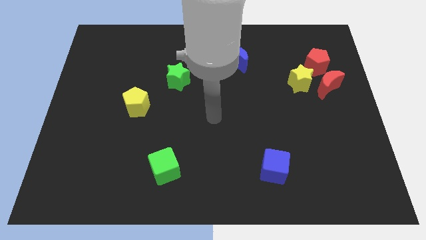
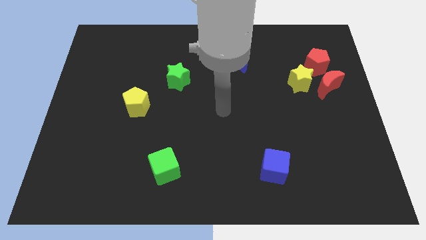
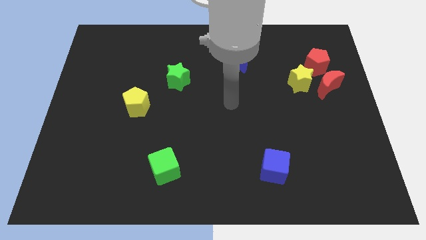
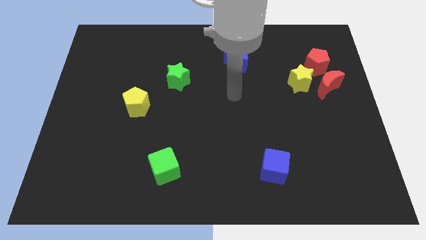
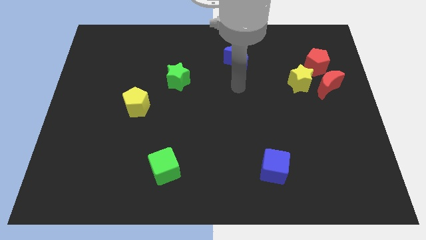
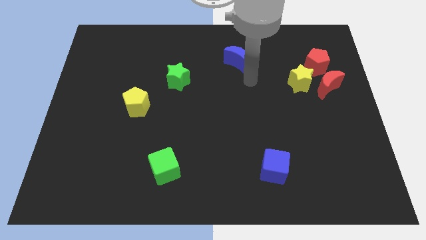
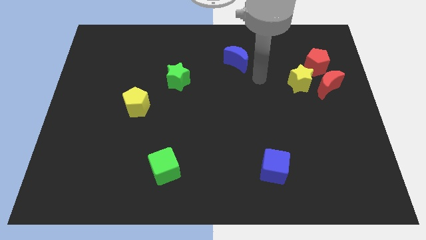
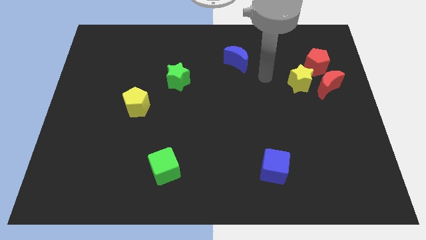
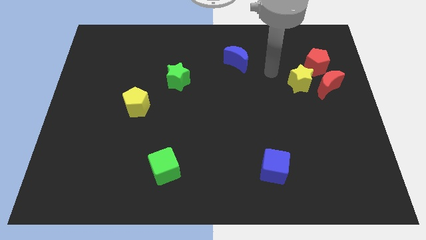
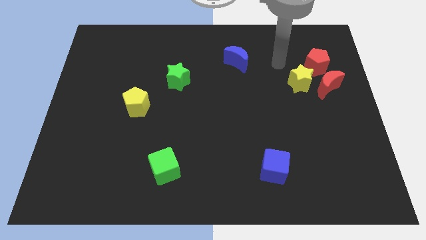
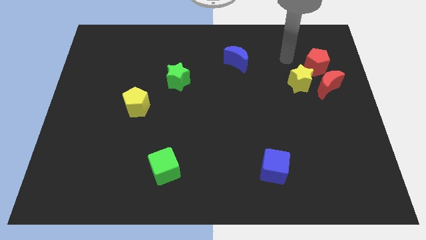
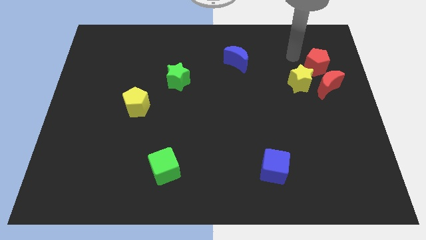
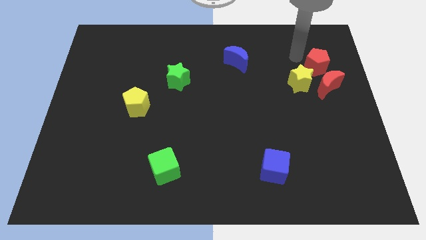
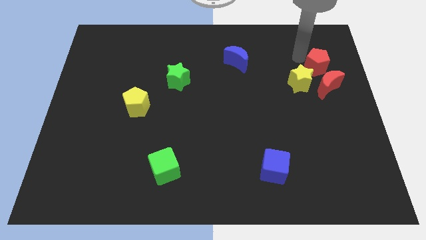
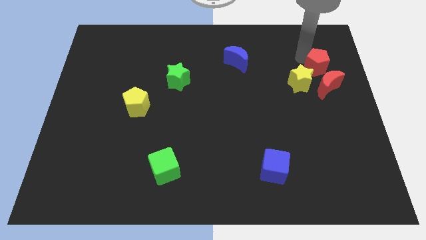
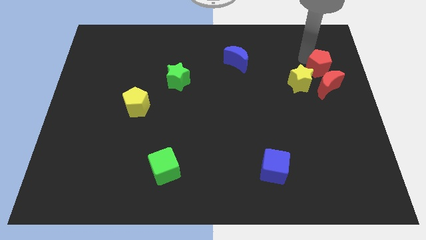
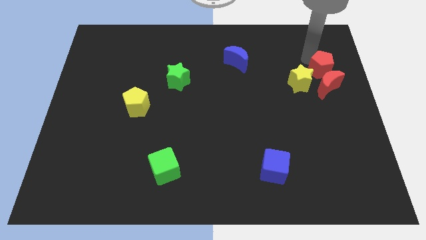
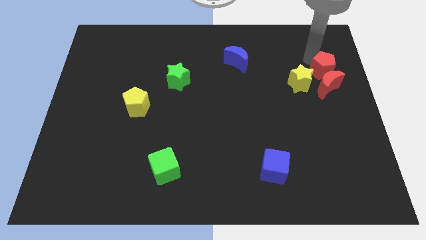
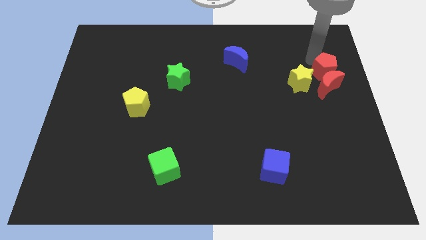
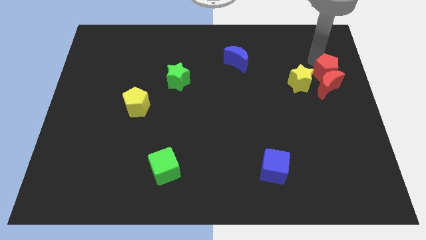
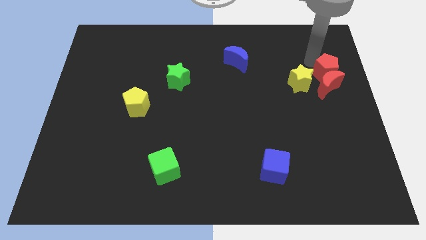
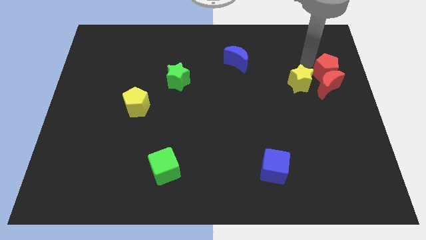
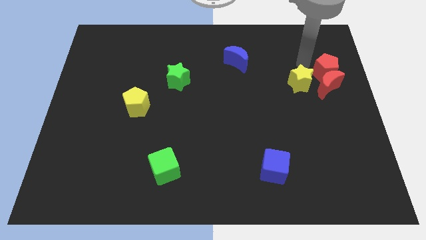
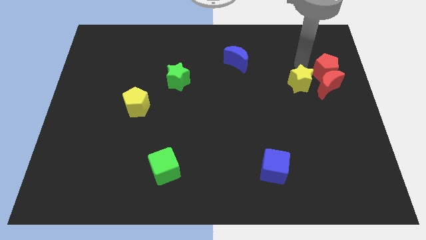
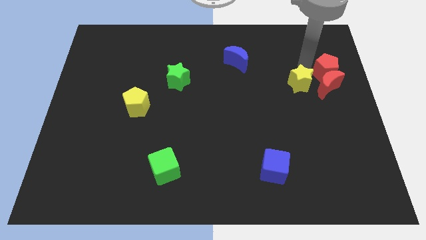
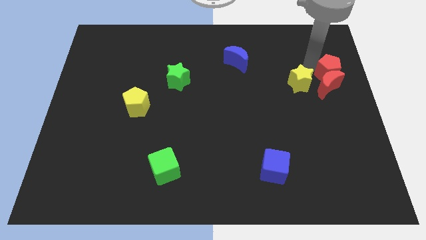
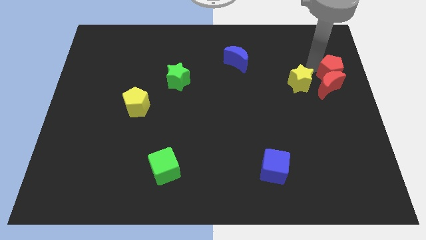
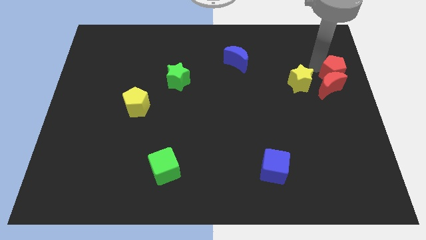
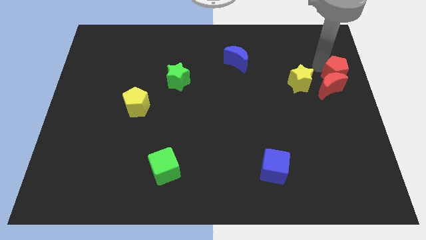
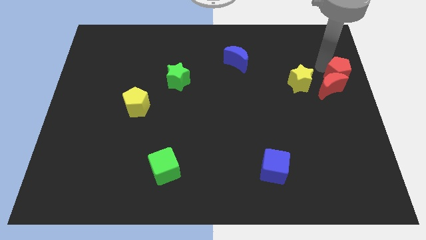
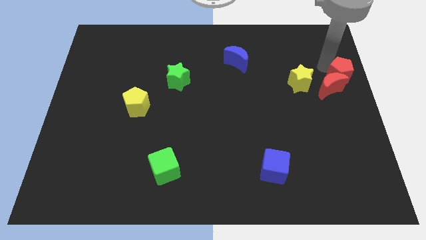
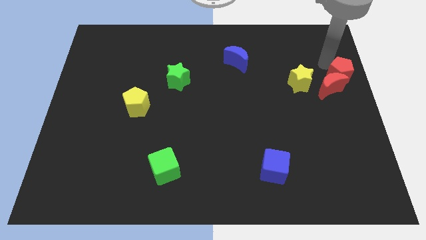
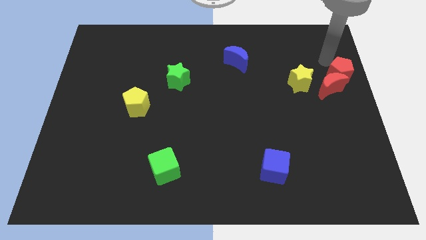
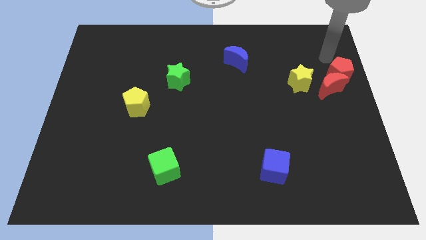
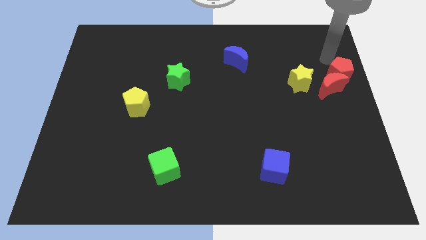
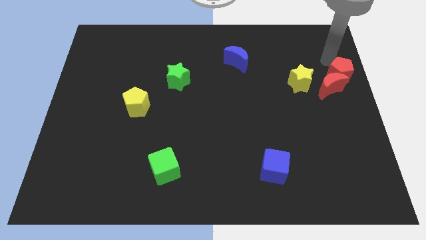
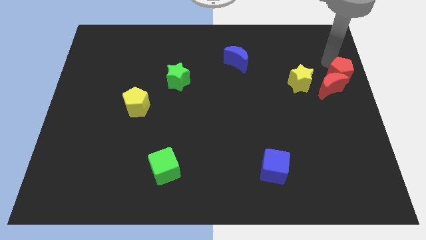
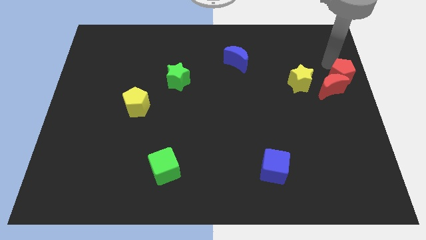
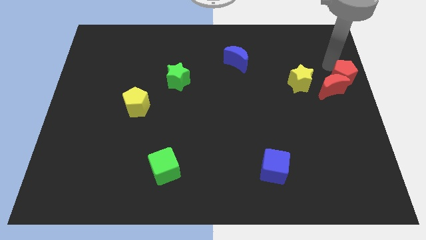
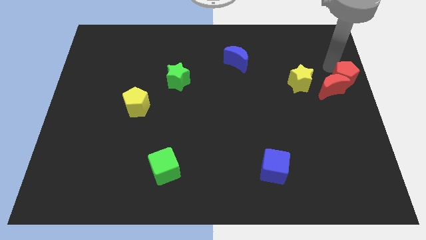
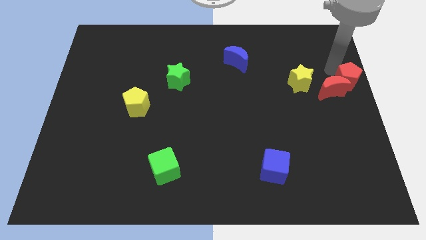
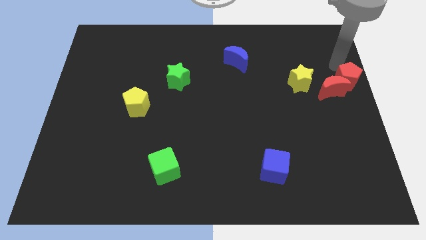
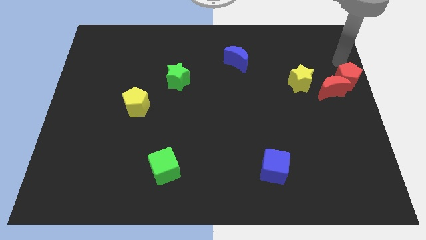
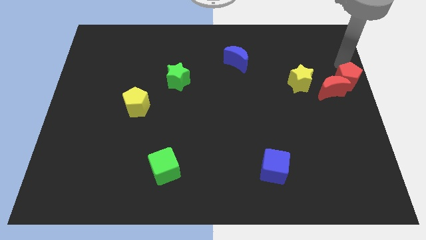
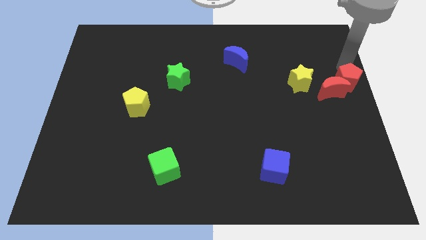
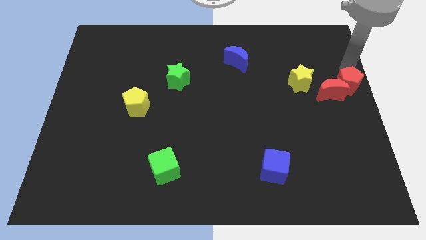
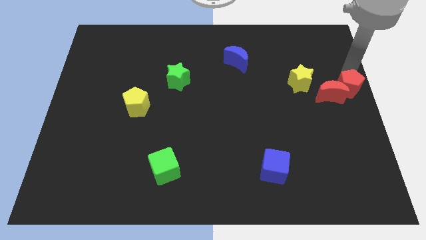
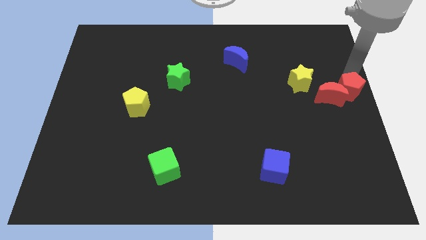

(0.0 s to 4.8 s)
slightly push the red pentagon downwards

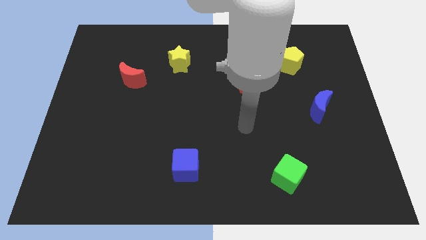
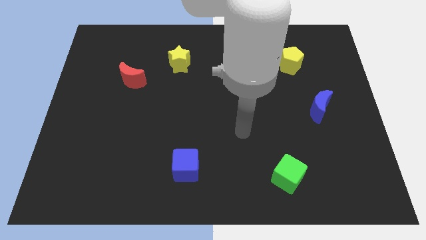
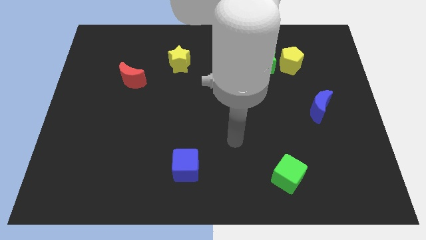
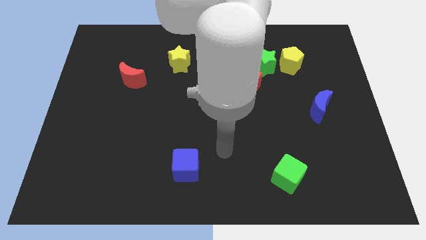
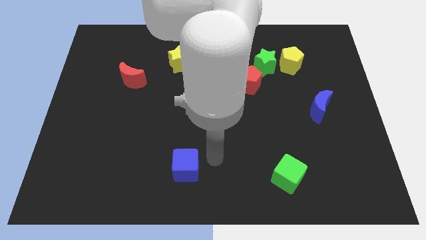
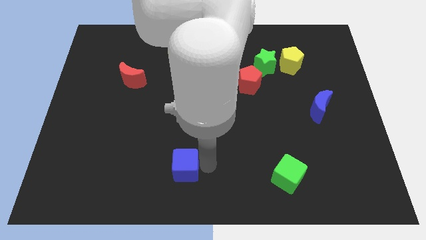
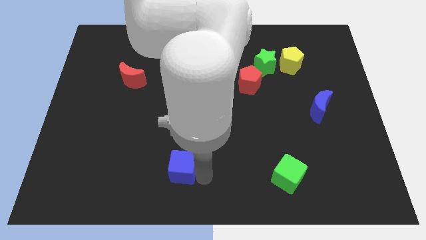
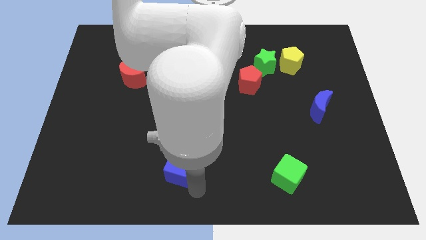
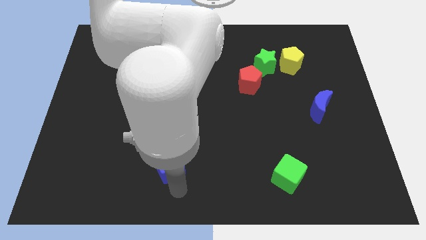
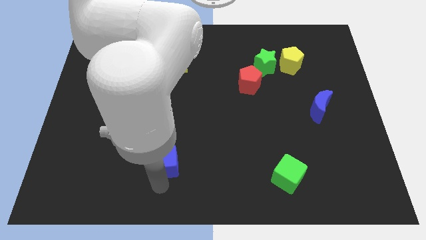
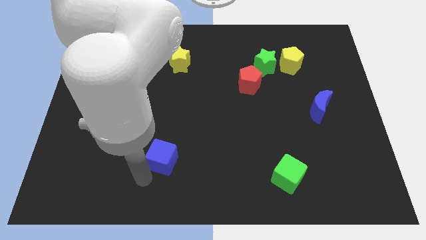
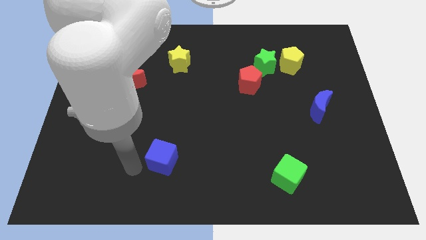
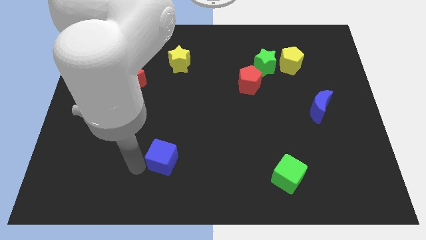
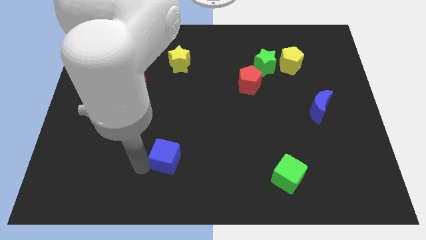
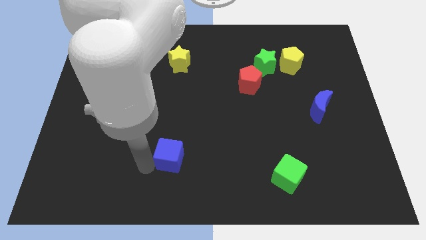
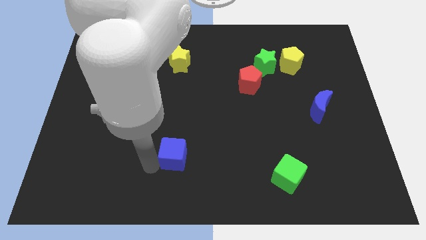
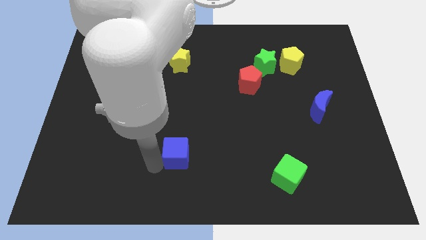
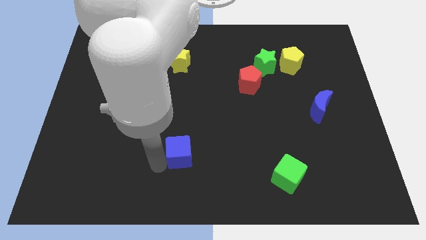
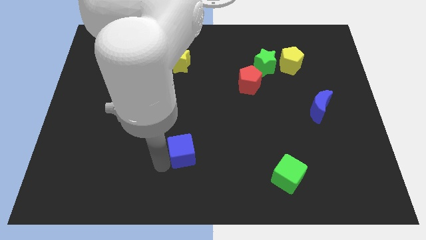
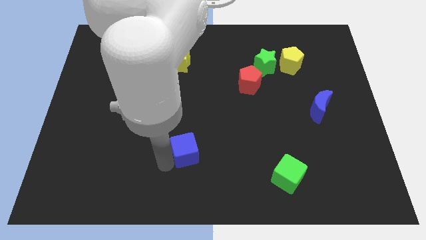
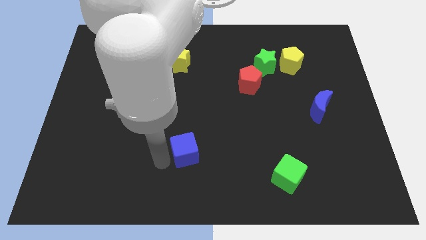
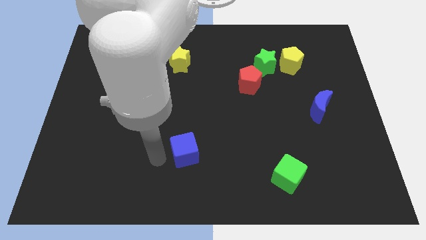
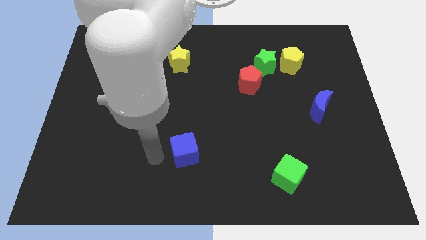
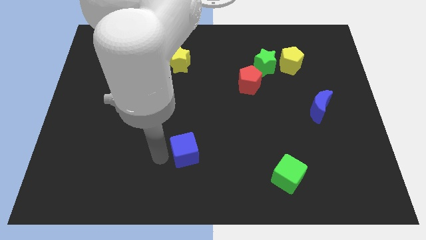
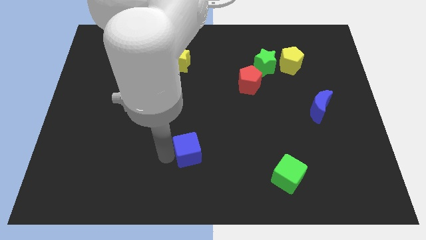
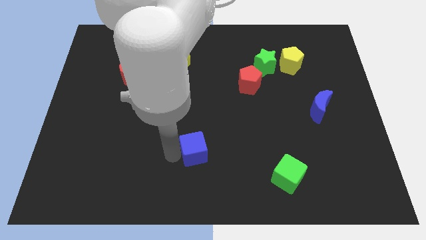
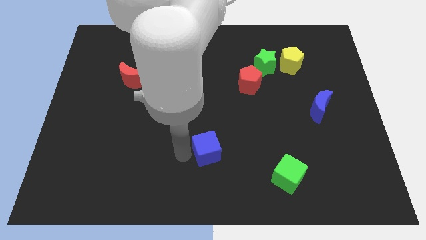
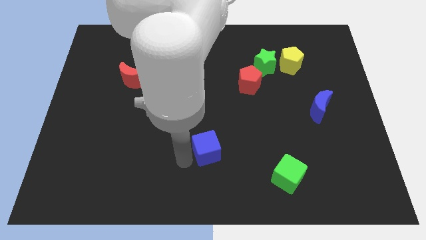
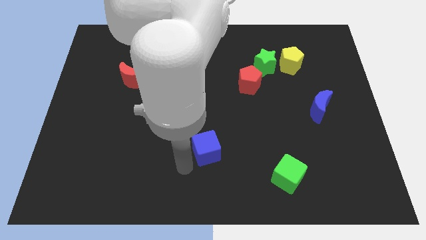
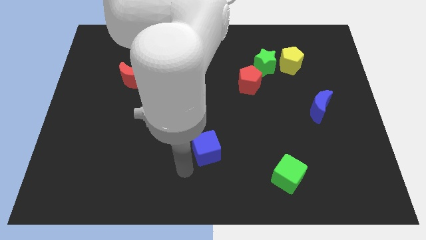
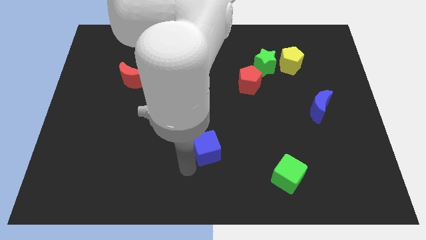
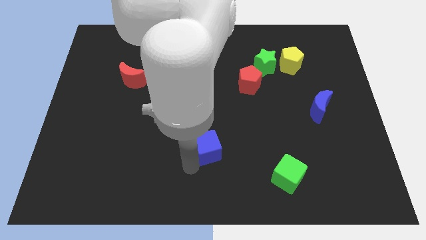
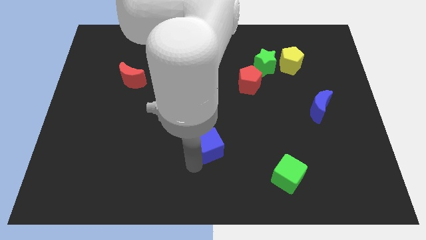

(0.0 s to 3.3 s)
slide the blue cube upwards and right diagonally slightly
